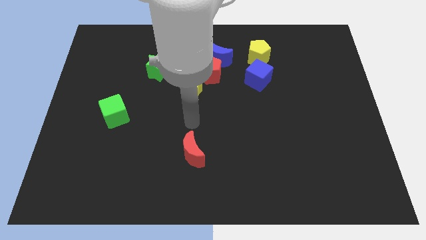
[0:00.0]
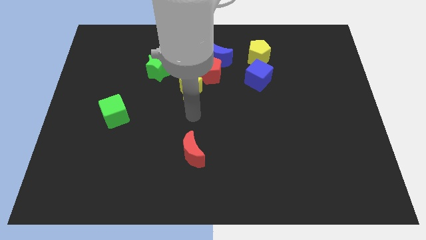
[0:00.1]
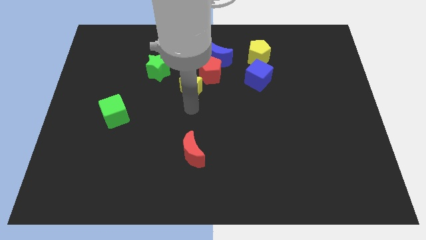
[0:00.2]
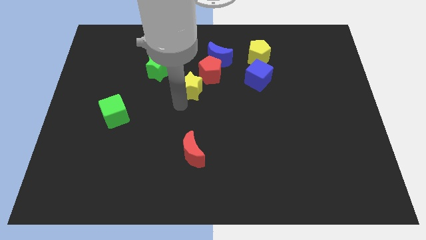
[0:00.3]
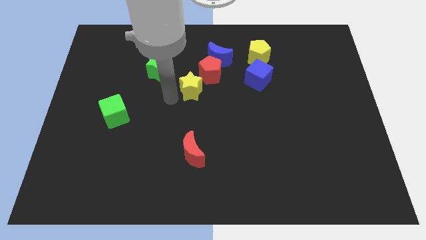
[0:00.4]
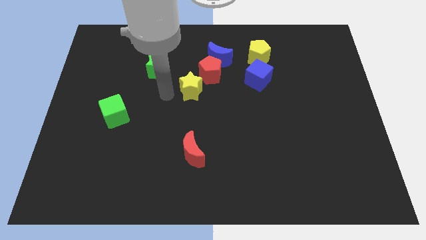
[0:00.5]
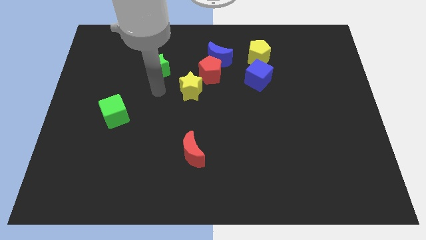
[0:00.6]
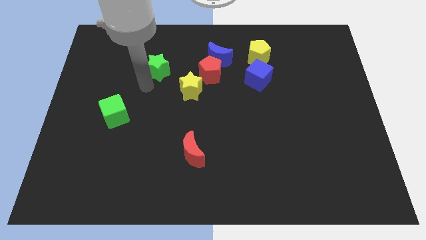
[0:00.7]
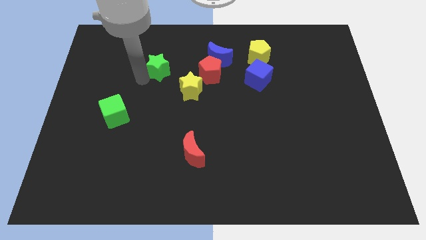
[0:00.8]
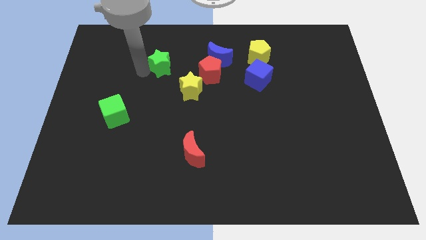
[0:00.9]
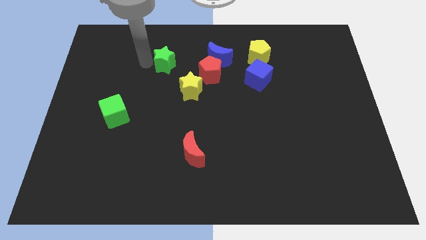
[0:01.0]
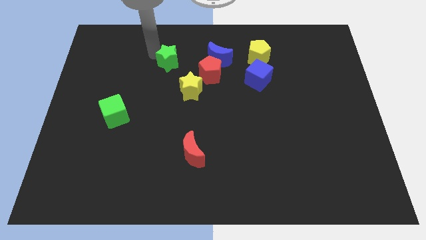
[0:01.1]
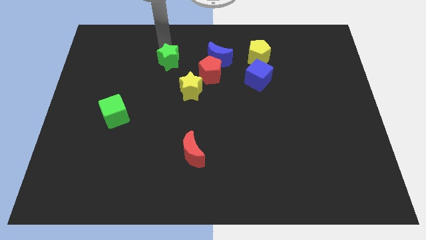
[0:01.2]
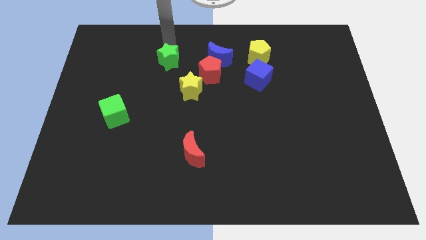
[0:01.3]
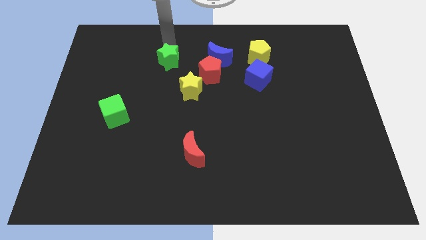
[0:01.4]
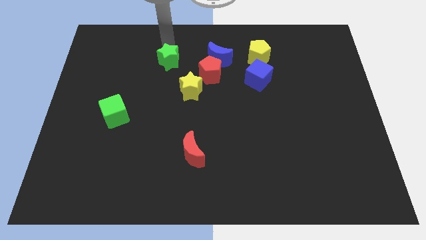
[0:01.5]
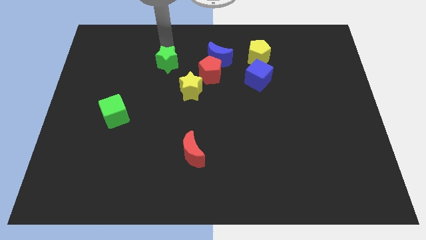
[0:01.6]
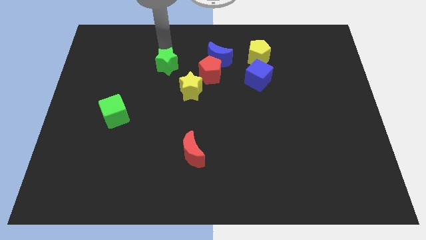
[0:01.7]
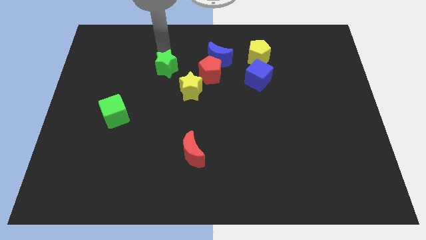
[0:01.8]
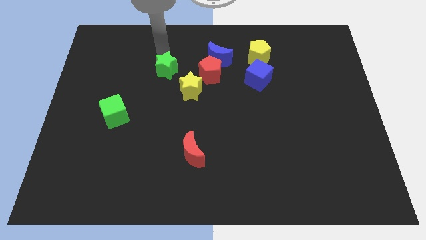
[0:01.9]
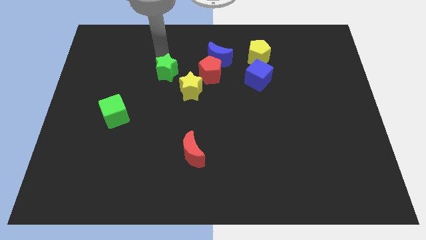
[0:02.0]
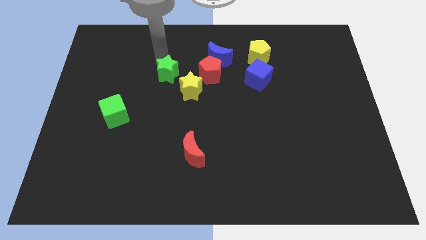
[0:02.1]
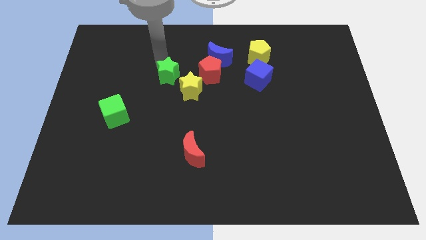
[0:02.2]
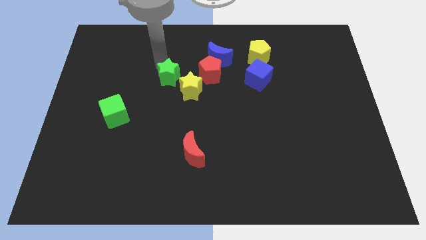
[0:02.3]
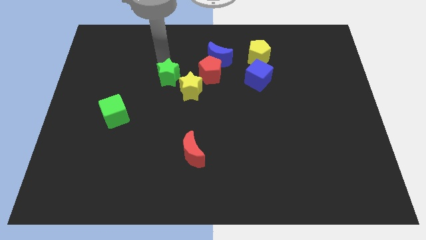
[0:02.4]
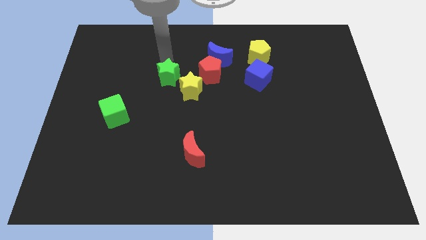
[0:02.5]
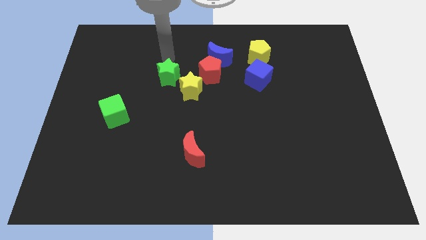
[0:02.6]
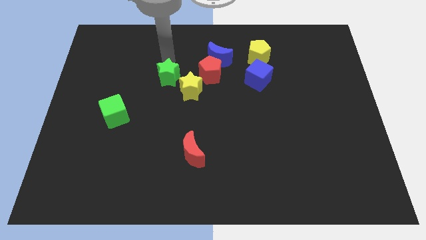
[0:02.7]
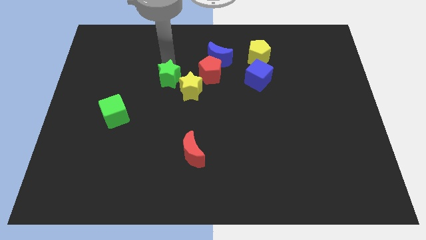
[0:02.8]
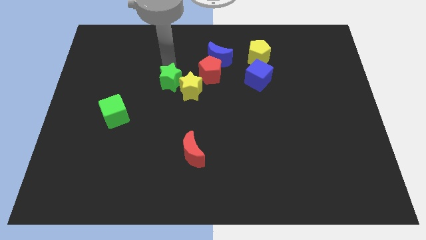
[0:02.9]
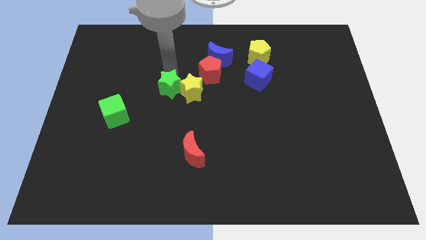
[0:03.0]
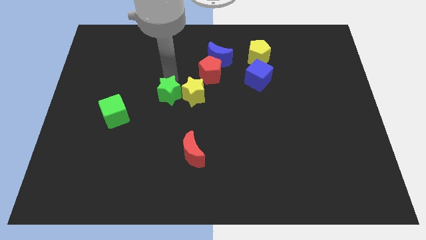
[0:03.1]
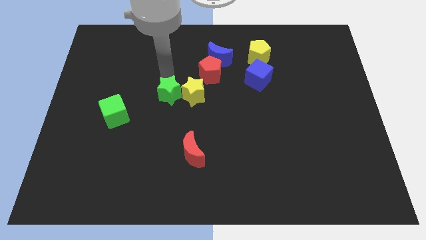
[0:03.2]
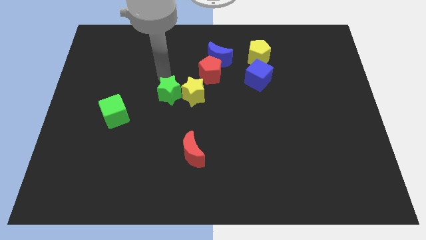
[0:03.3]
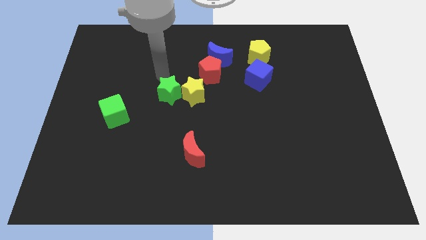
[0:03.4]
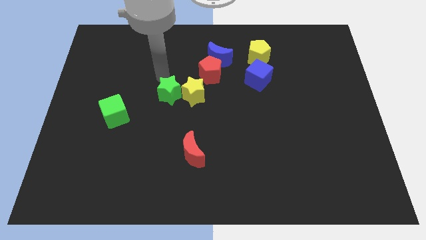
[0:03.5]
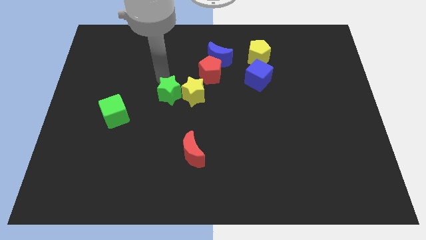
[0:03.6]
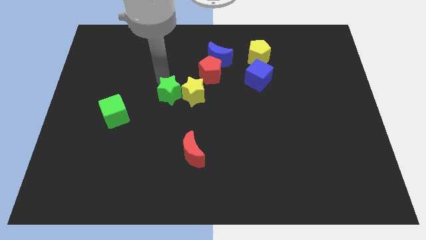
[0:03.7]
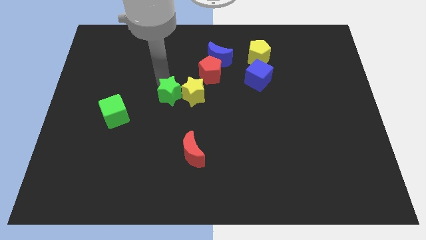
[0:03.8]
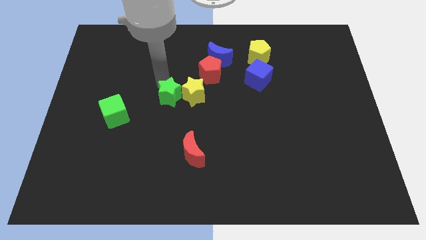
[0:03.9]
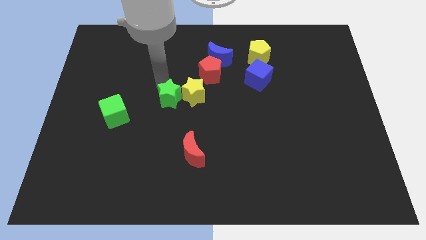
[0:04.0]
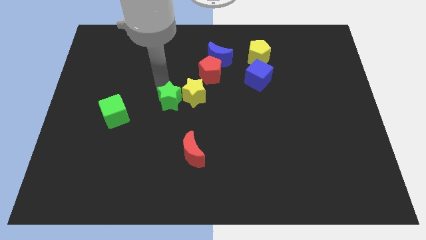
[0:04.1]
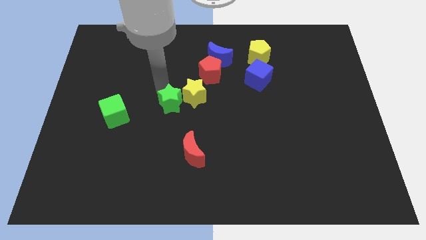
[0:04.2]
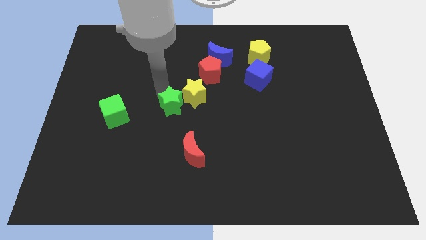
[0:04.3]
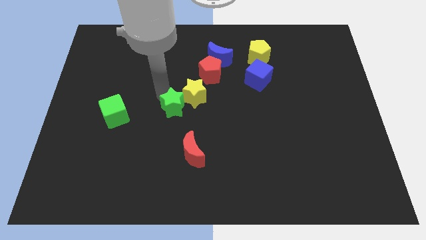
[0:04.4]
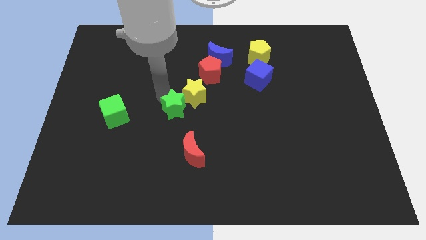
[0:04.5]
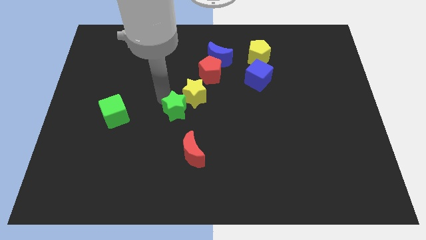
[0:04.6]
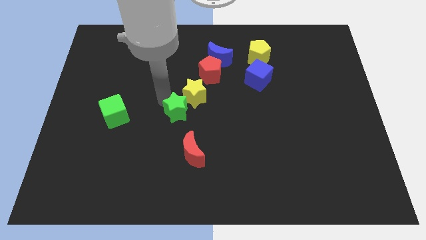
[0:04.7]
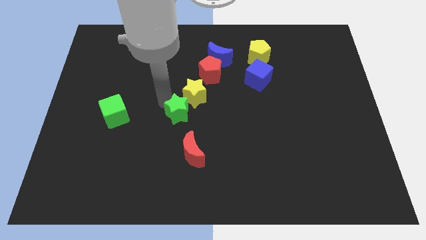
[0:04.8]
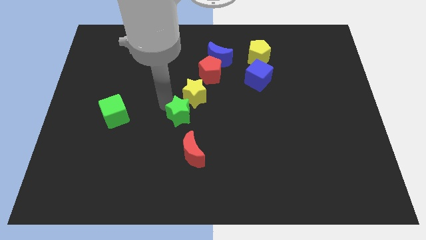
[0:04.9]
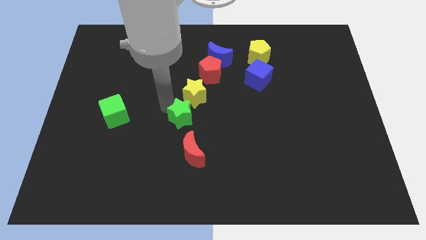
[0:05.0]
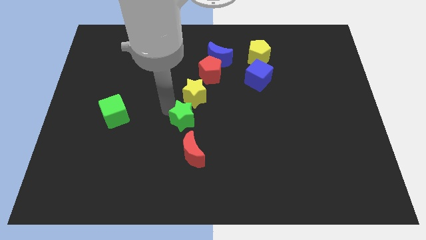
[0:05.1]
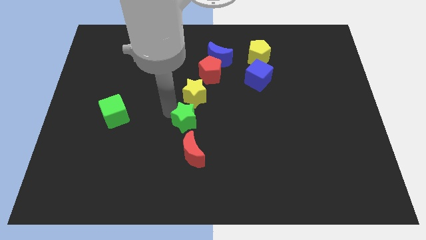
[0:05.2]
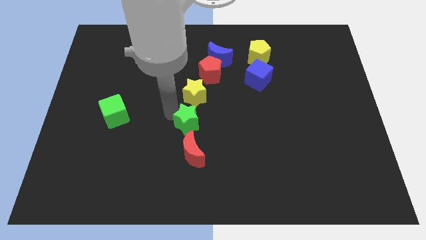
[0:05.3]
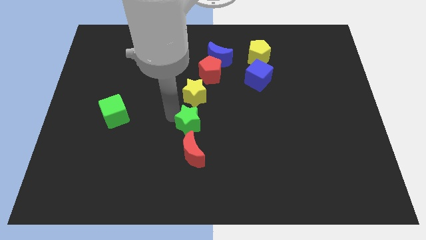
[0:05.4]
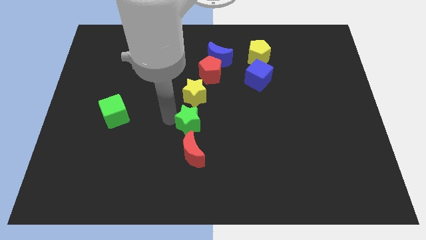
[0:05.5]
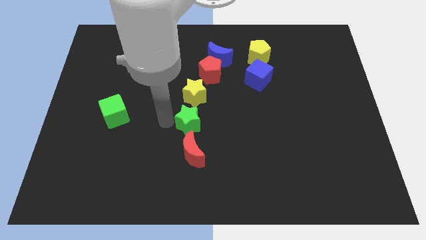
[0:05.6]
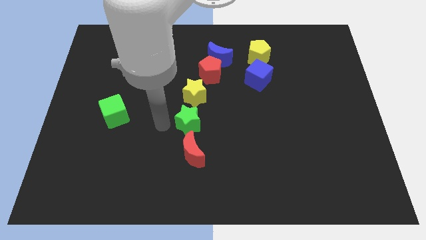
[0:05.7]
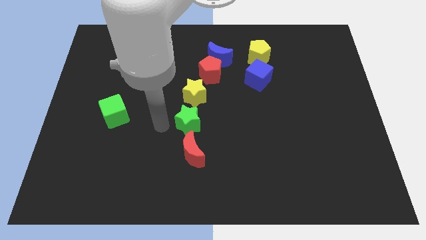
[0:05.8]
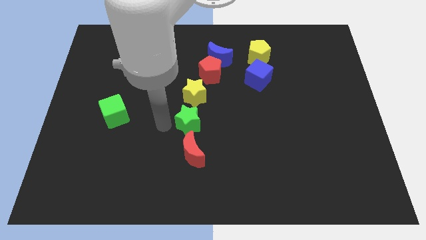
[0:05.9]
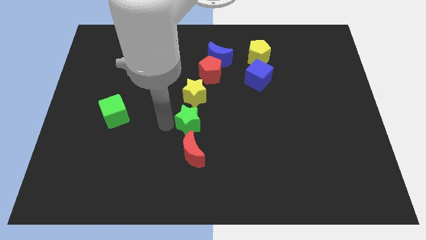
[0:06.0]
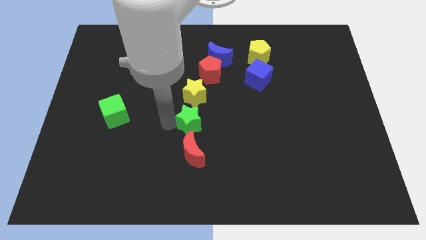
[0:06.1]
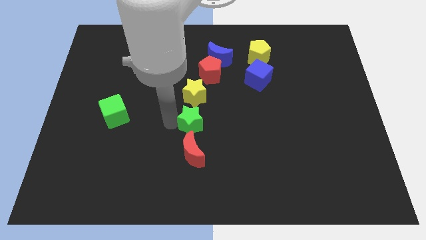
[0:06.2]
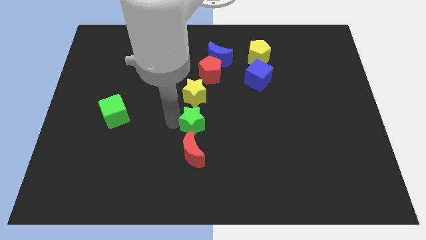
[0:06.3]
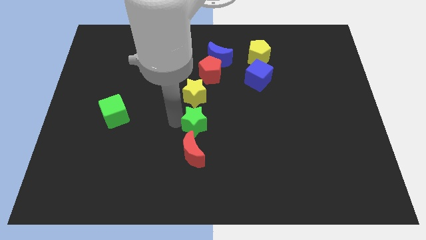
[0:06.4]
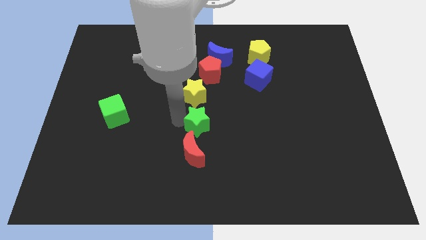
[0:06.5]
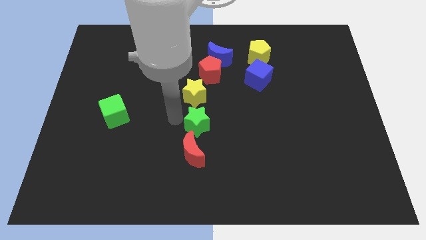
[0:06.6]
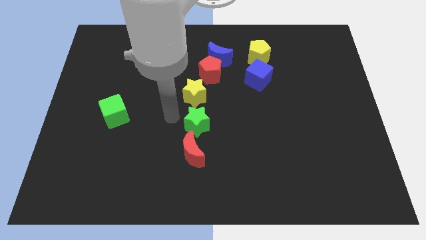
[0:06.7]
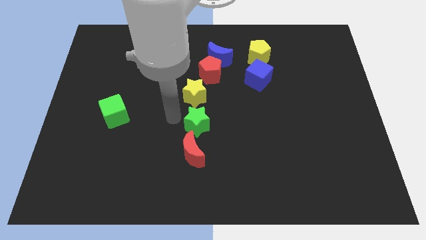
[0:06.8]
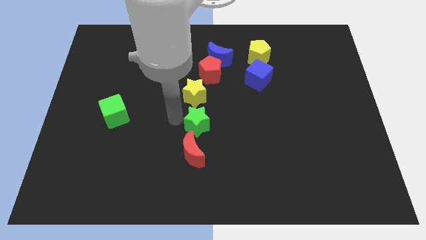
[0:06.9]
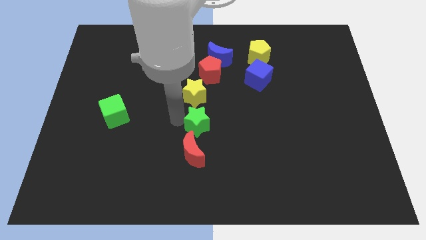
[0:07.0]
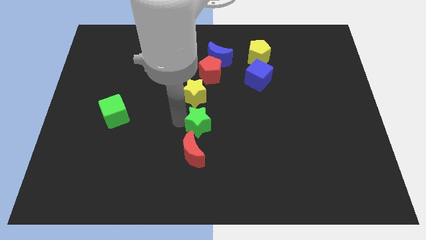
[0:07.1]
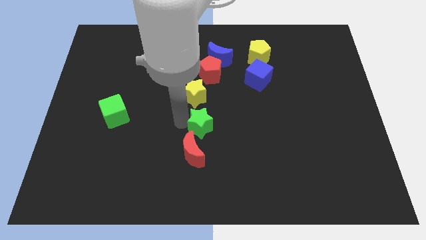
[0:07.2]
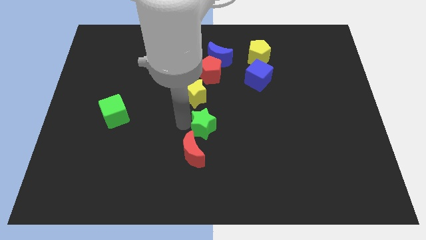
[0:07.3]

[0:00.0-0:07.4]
slide the green star downwards and to the right diagonally

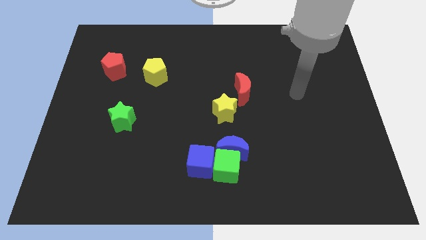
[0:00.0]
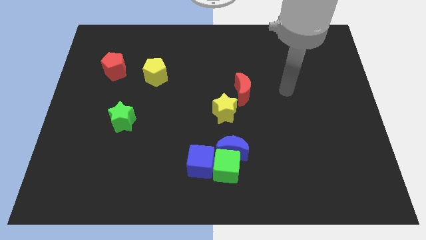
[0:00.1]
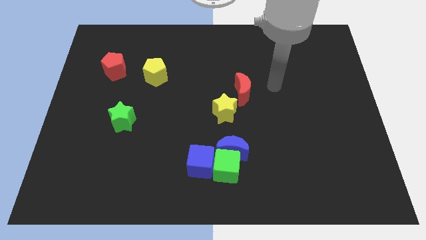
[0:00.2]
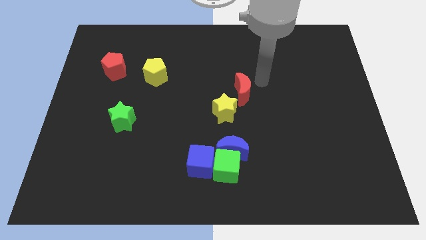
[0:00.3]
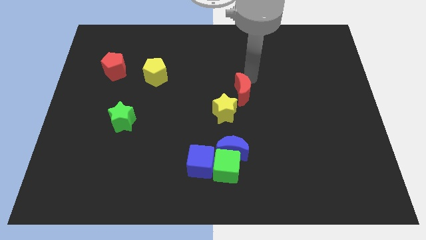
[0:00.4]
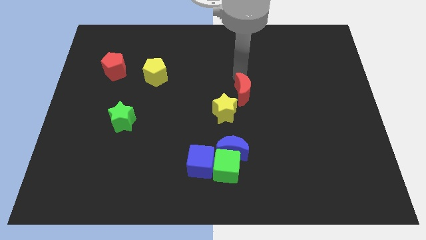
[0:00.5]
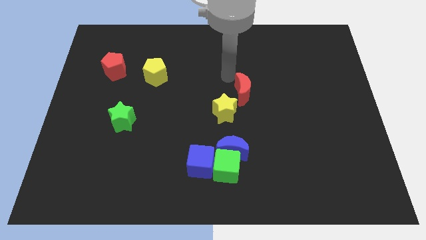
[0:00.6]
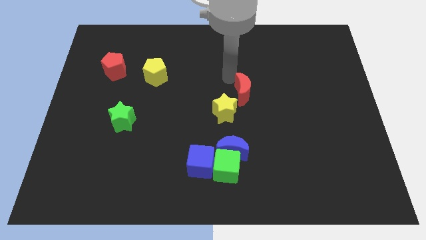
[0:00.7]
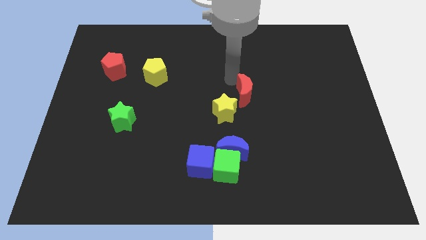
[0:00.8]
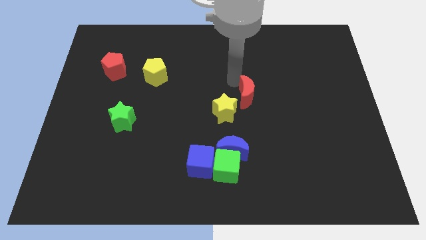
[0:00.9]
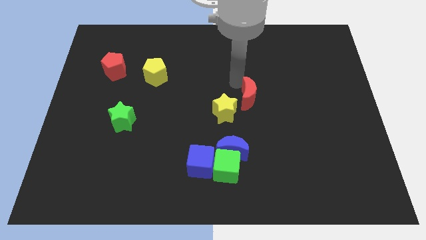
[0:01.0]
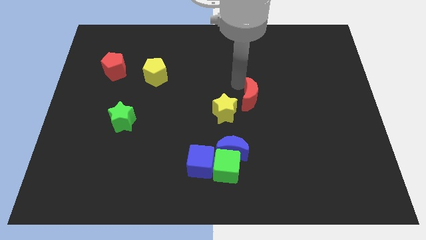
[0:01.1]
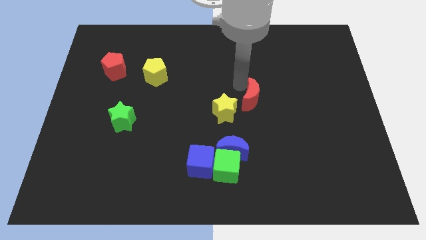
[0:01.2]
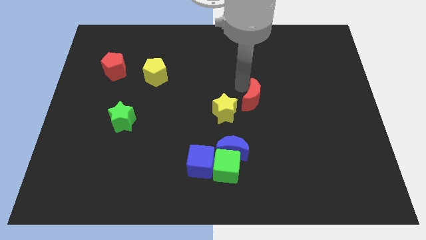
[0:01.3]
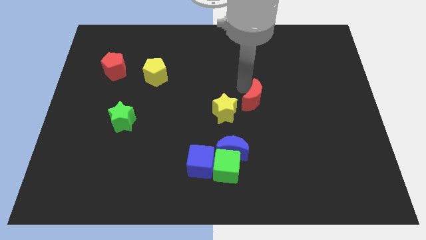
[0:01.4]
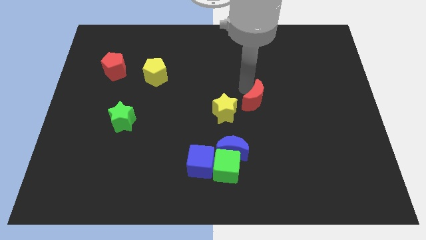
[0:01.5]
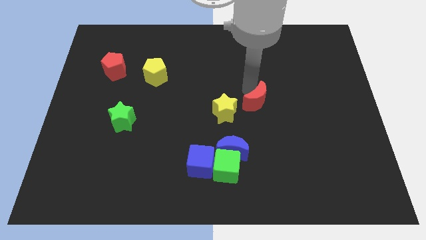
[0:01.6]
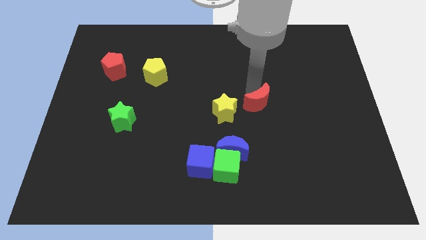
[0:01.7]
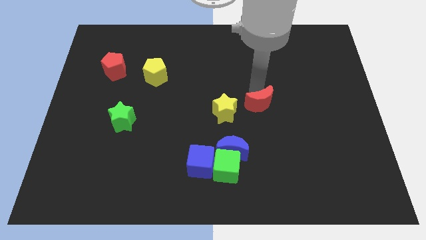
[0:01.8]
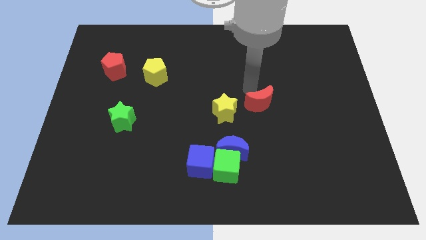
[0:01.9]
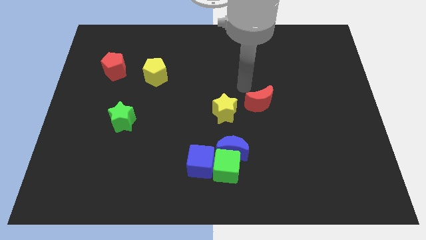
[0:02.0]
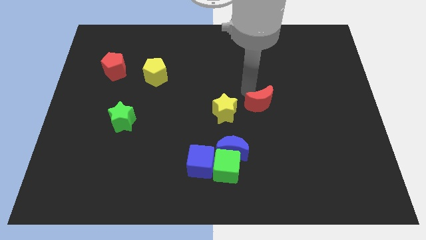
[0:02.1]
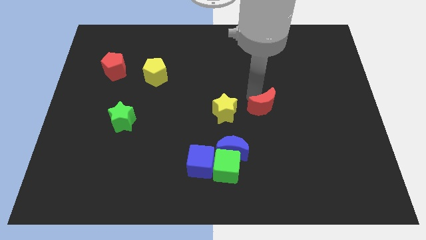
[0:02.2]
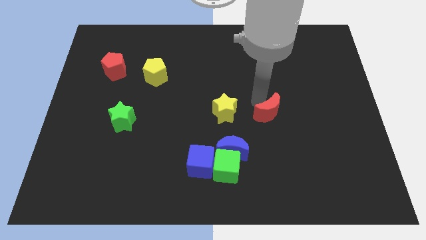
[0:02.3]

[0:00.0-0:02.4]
slightly slide the red moon diagonally downwards and right
